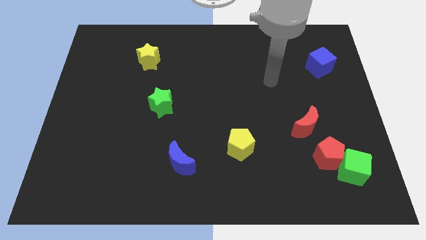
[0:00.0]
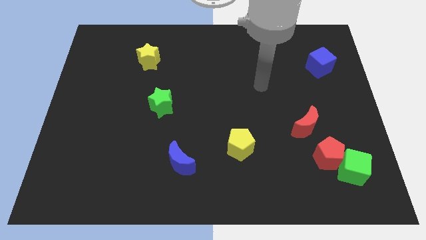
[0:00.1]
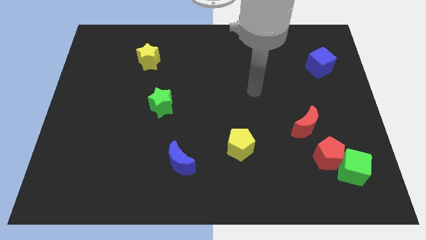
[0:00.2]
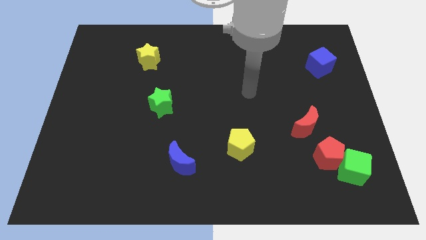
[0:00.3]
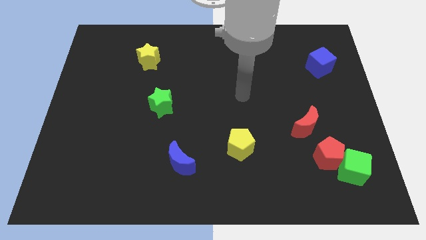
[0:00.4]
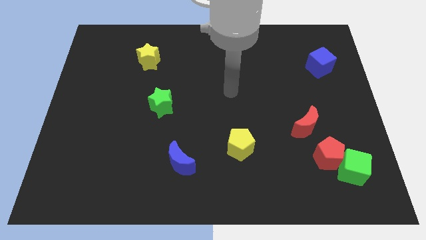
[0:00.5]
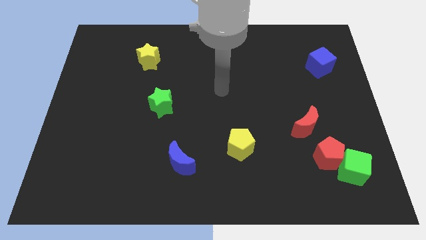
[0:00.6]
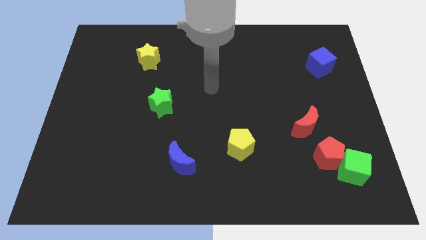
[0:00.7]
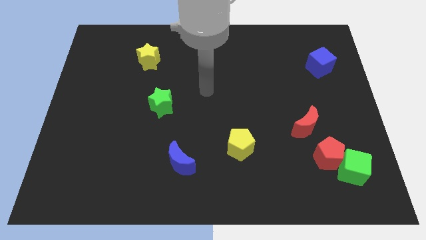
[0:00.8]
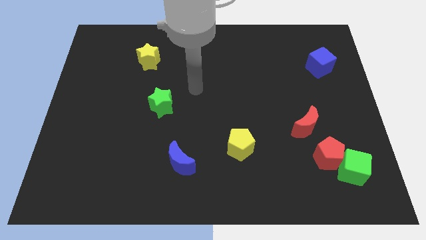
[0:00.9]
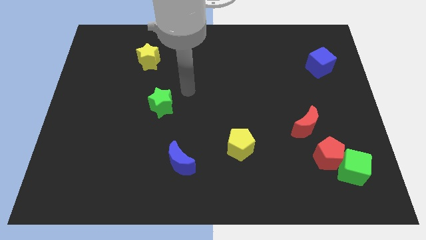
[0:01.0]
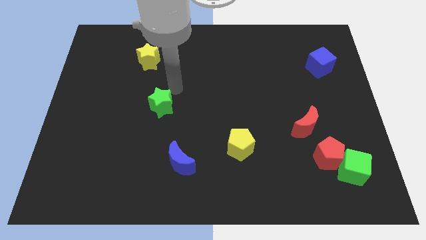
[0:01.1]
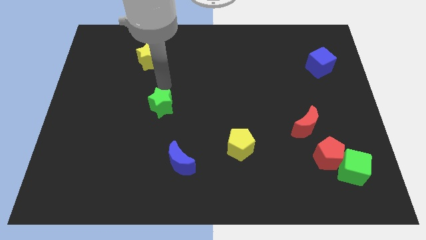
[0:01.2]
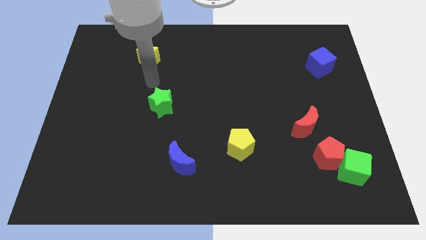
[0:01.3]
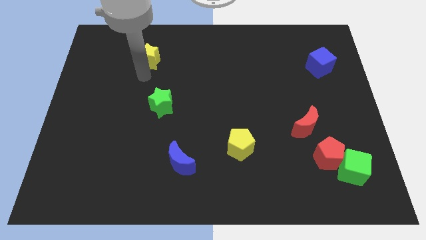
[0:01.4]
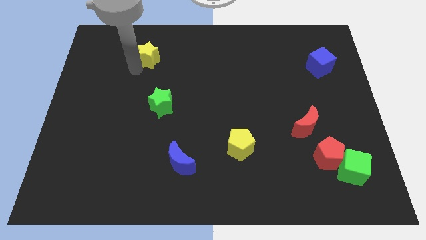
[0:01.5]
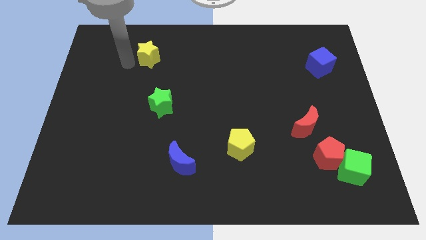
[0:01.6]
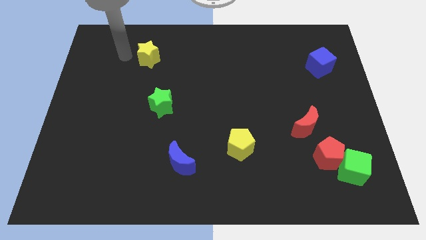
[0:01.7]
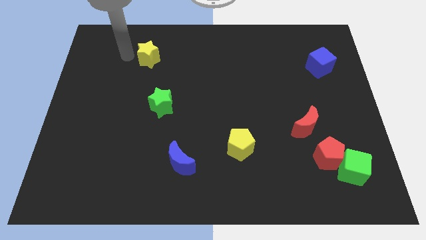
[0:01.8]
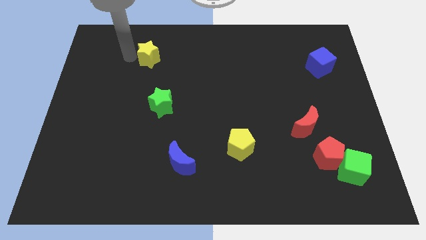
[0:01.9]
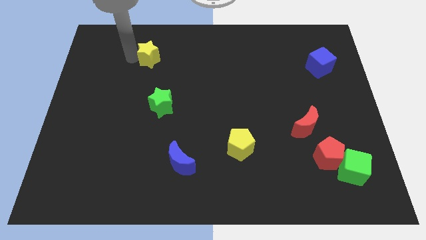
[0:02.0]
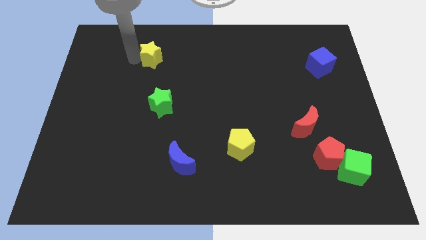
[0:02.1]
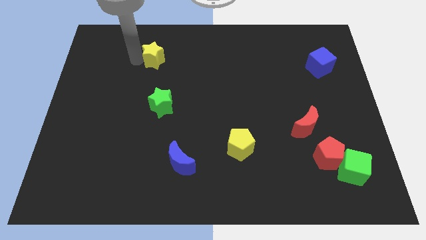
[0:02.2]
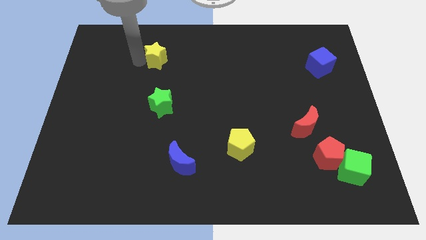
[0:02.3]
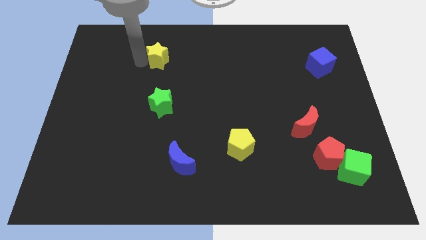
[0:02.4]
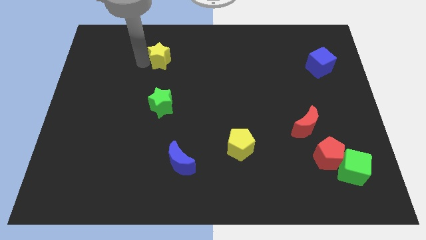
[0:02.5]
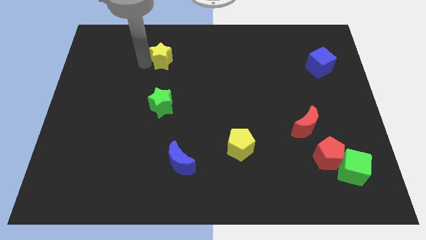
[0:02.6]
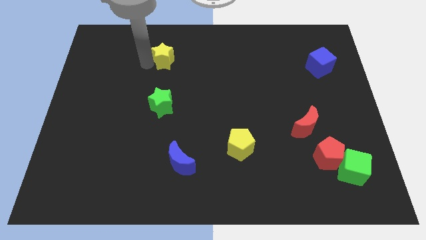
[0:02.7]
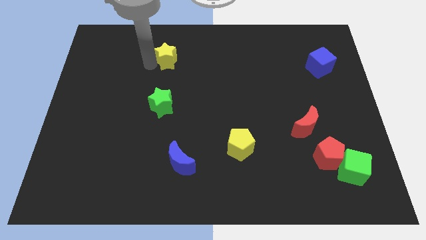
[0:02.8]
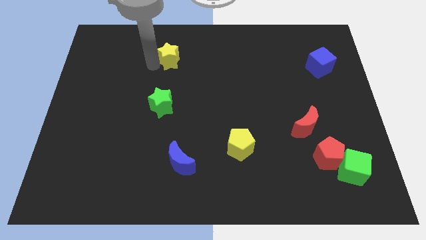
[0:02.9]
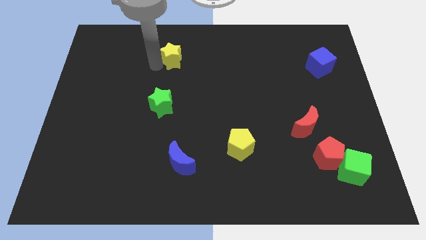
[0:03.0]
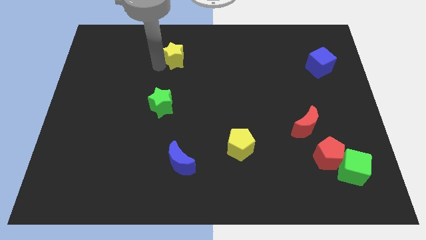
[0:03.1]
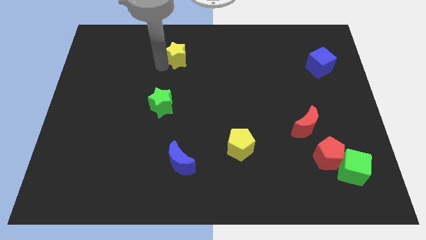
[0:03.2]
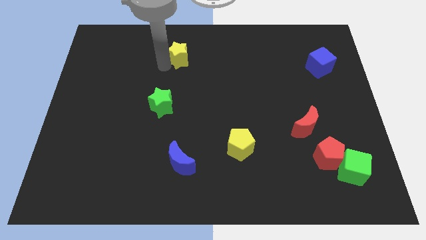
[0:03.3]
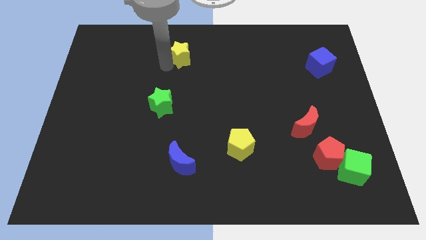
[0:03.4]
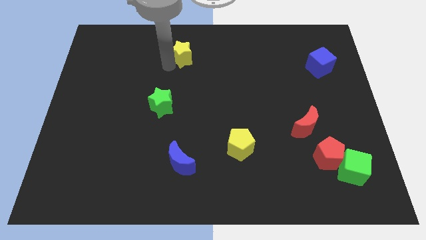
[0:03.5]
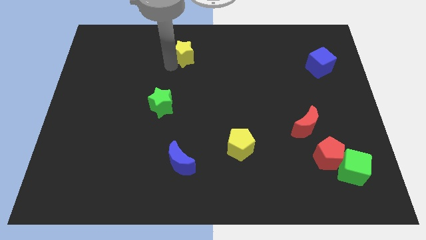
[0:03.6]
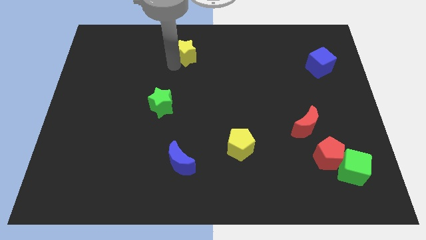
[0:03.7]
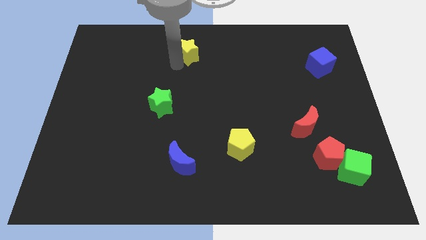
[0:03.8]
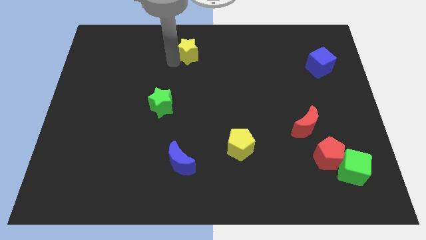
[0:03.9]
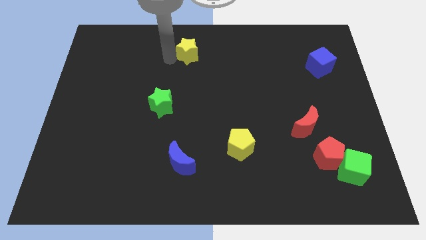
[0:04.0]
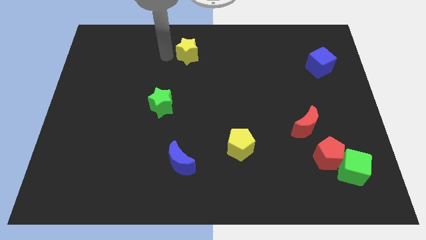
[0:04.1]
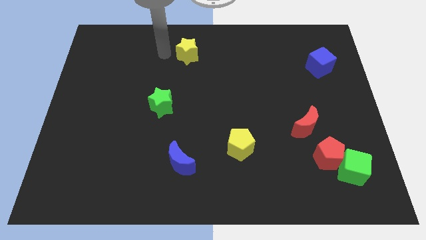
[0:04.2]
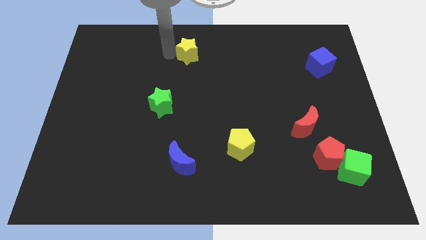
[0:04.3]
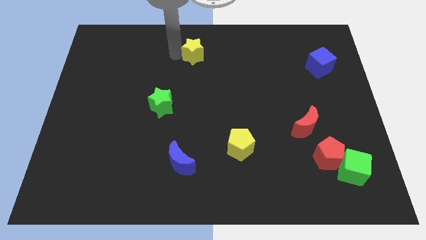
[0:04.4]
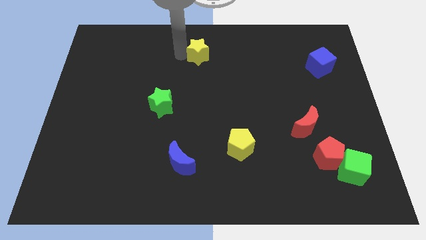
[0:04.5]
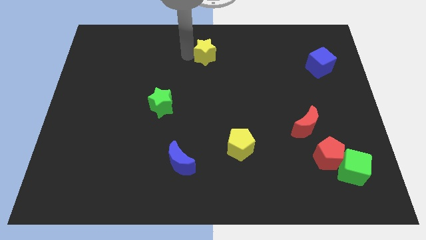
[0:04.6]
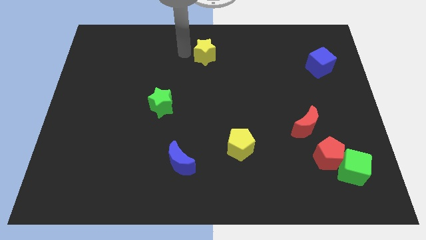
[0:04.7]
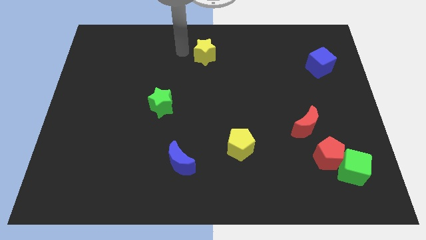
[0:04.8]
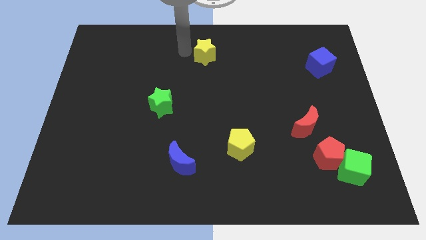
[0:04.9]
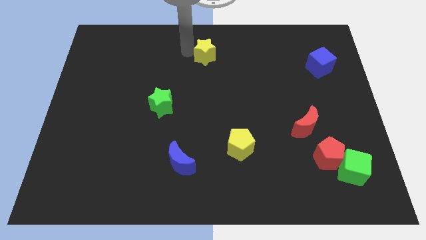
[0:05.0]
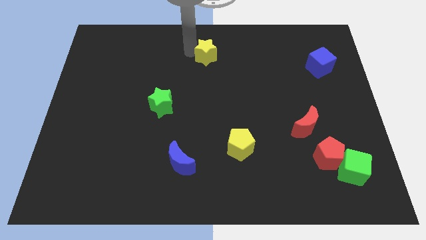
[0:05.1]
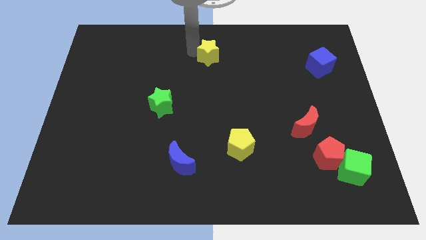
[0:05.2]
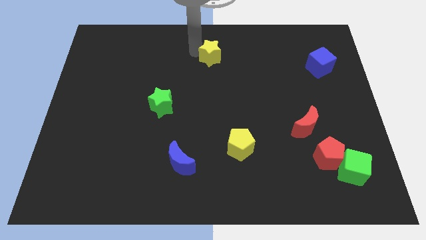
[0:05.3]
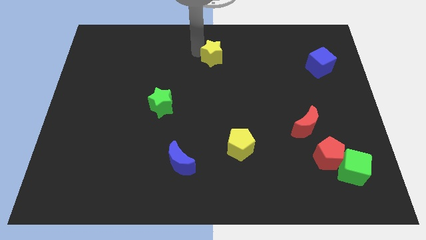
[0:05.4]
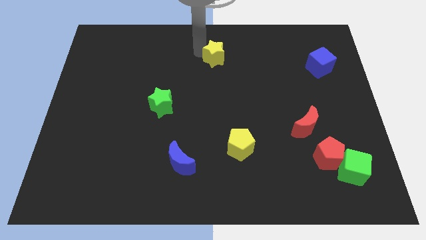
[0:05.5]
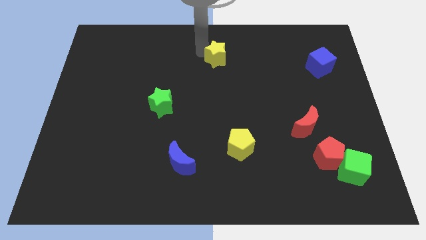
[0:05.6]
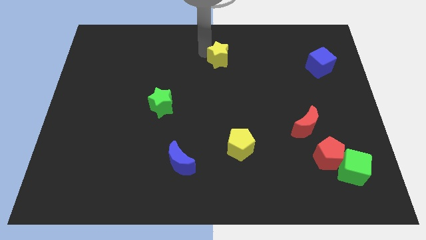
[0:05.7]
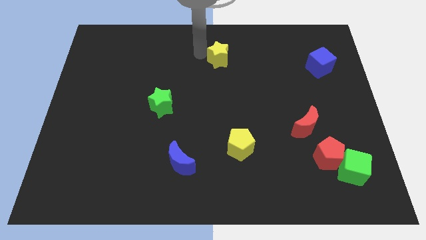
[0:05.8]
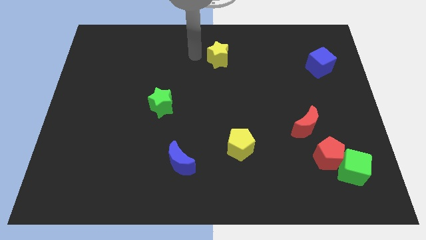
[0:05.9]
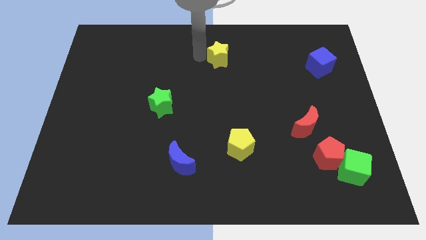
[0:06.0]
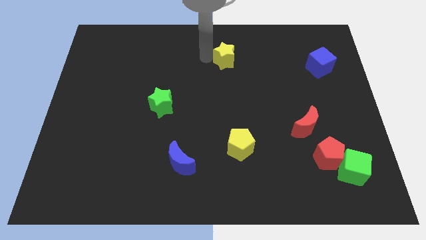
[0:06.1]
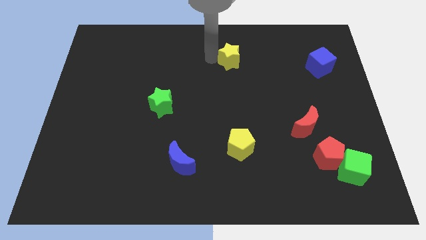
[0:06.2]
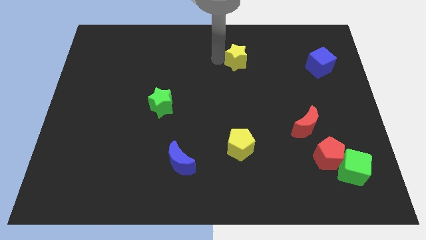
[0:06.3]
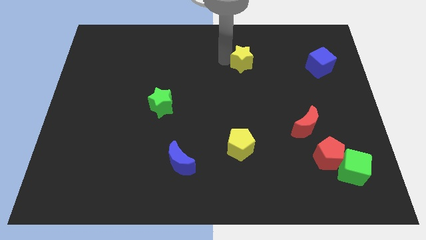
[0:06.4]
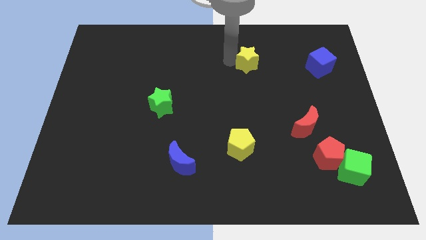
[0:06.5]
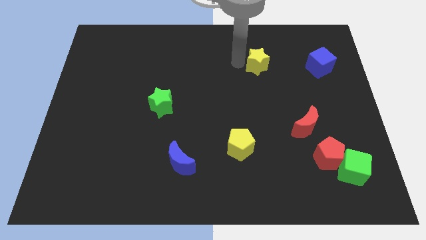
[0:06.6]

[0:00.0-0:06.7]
put the yellow star to the left side of the blue cube

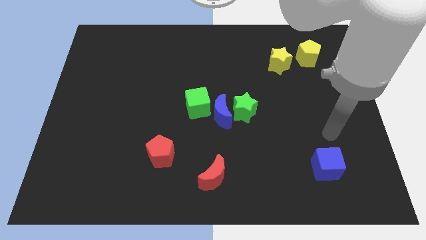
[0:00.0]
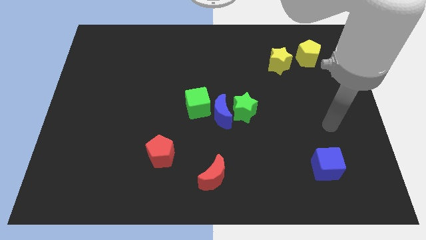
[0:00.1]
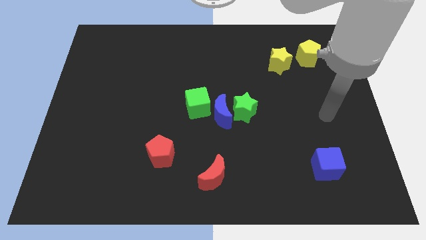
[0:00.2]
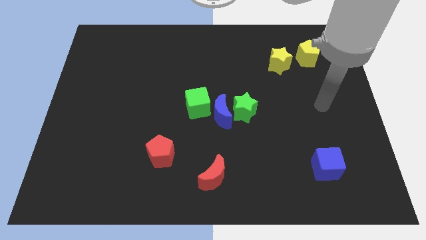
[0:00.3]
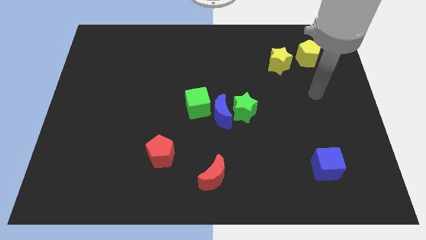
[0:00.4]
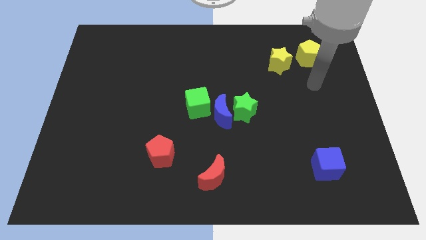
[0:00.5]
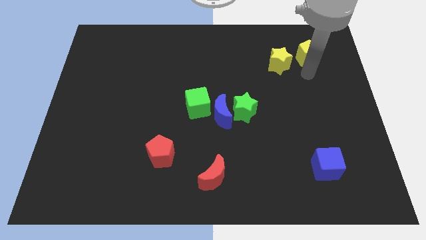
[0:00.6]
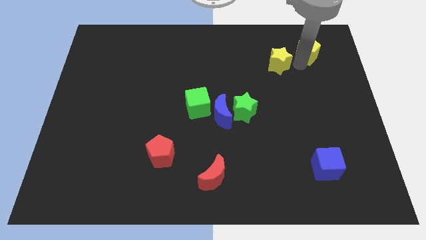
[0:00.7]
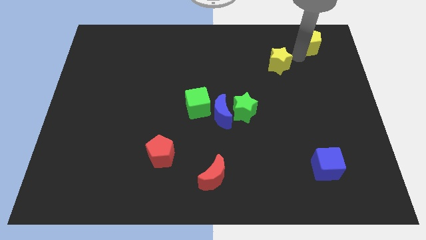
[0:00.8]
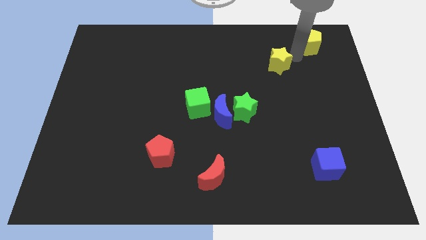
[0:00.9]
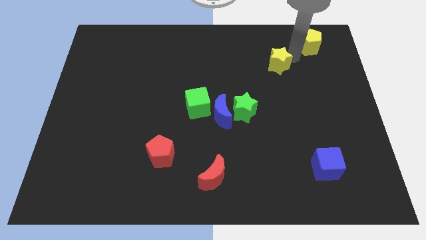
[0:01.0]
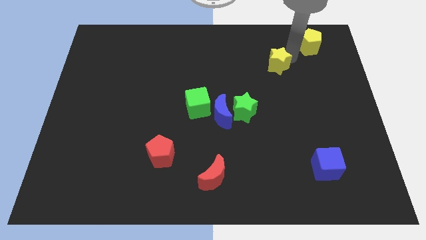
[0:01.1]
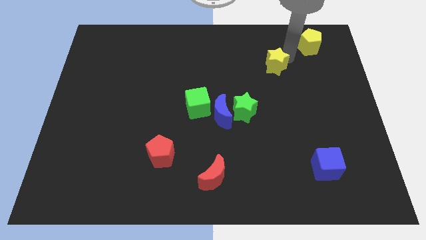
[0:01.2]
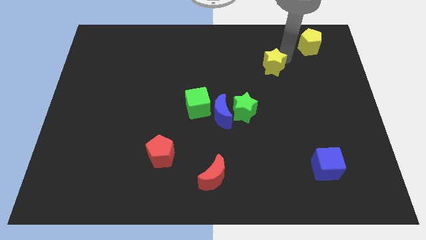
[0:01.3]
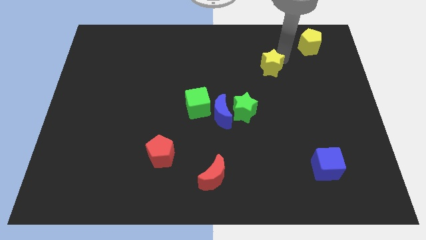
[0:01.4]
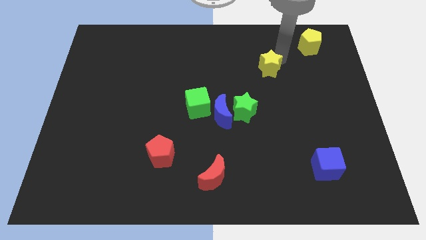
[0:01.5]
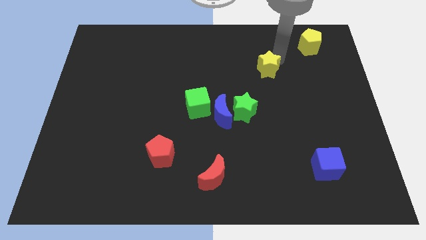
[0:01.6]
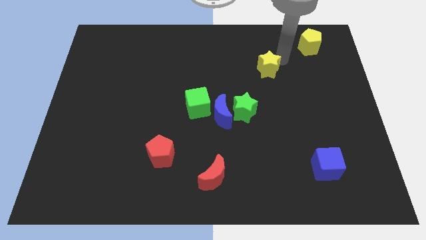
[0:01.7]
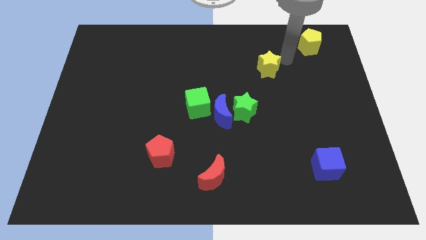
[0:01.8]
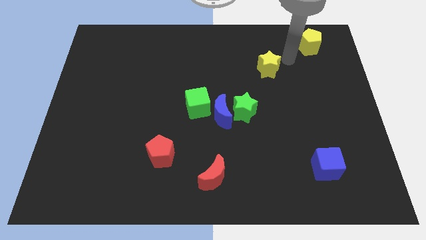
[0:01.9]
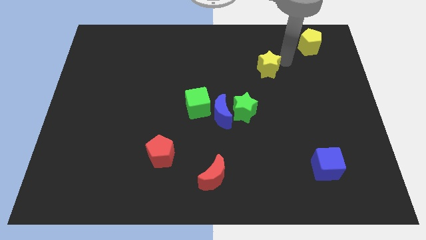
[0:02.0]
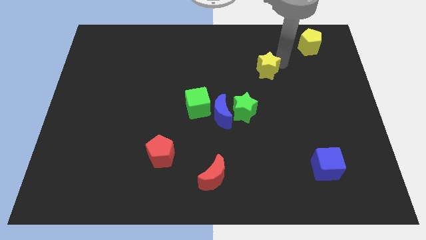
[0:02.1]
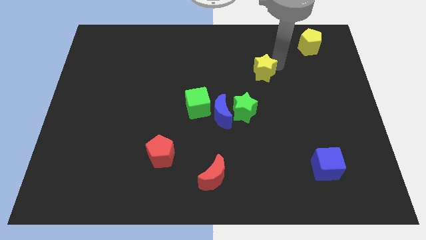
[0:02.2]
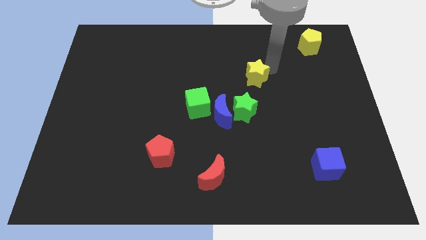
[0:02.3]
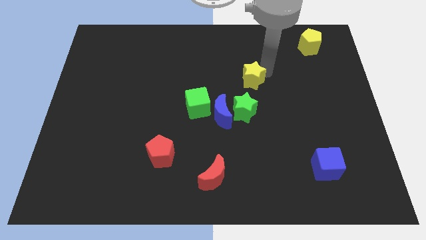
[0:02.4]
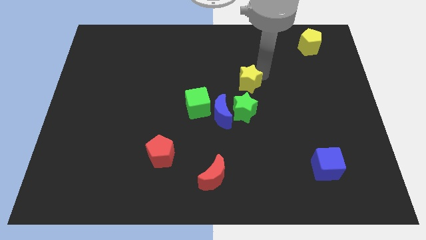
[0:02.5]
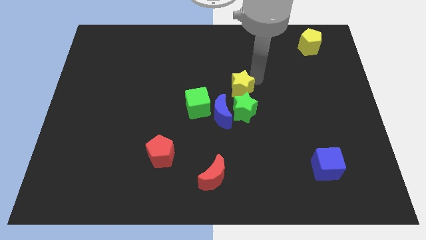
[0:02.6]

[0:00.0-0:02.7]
put the yellow star to the top left of the green star
